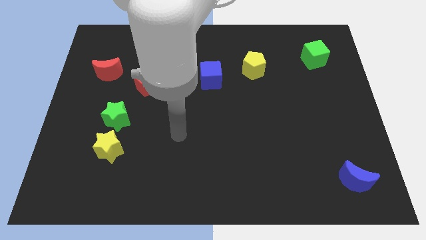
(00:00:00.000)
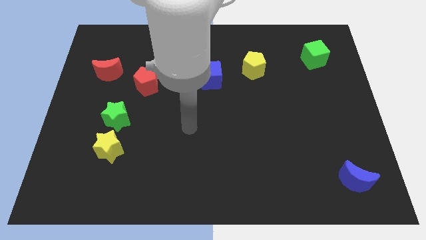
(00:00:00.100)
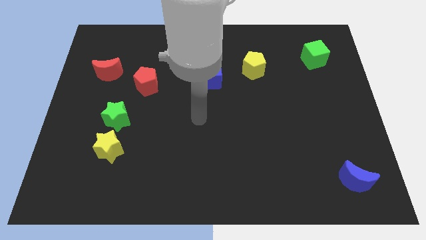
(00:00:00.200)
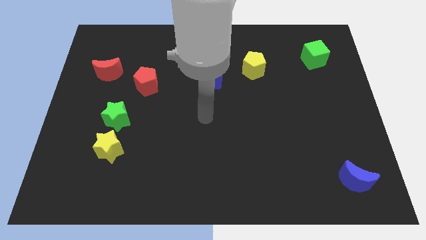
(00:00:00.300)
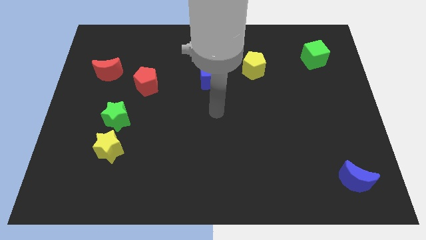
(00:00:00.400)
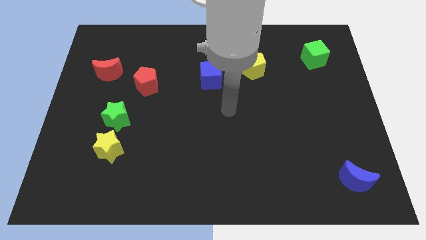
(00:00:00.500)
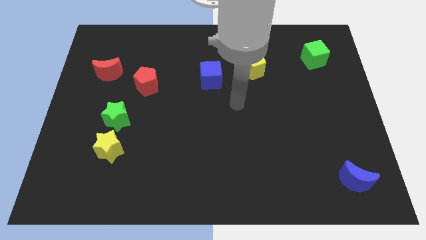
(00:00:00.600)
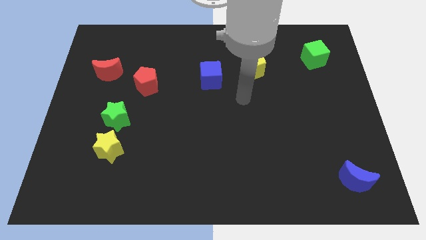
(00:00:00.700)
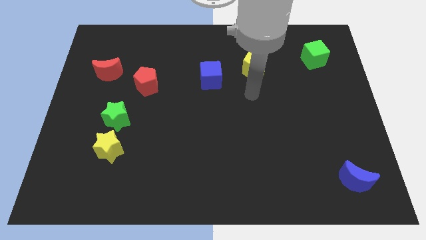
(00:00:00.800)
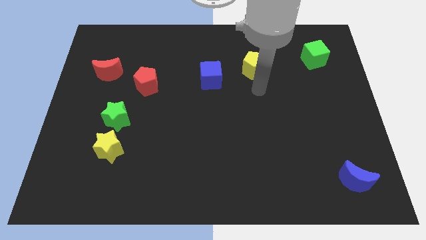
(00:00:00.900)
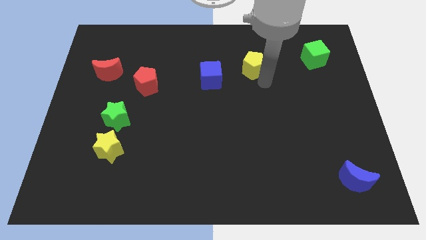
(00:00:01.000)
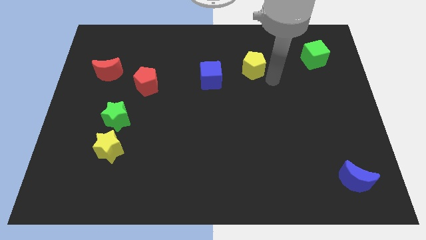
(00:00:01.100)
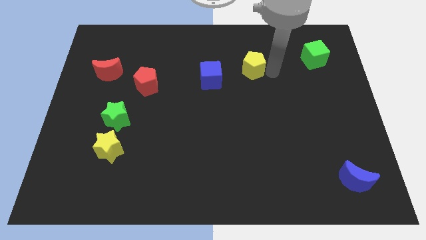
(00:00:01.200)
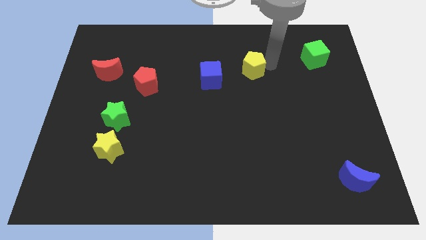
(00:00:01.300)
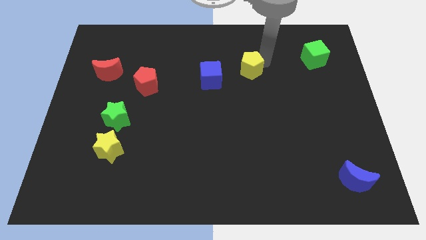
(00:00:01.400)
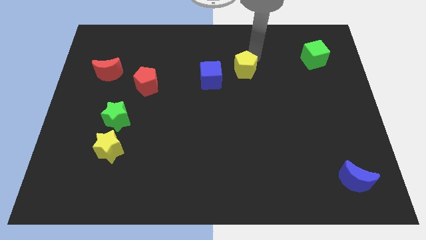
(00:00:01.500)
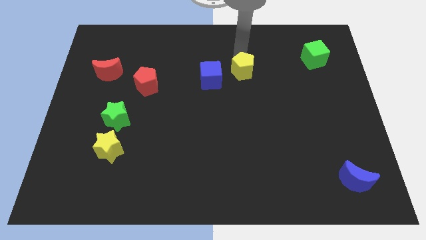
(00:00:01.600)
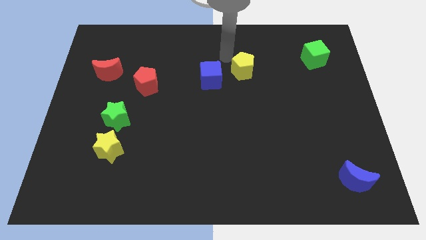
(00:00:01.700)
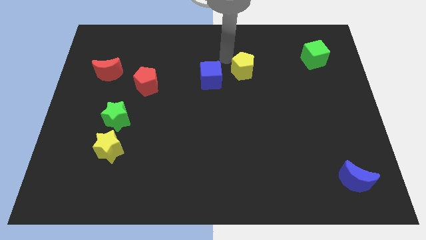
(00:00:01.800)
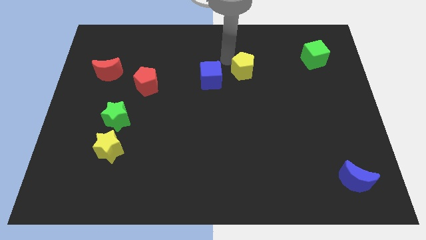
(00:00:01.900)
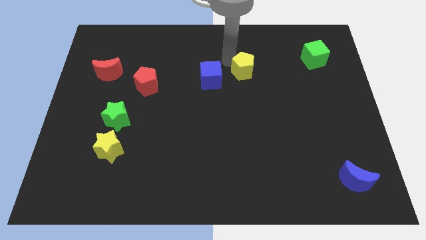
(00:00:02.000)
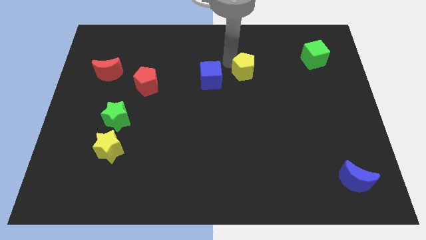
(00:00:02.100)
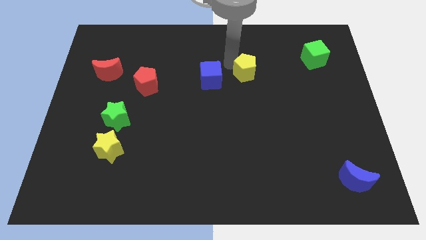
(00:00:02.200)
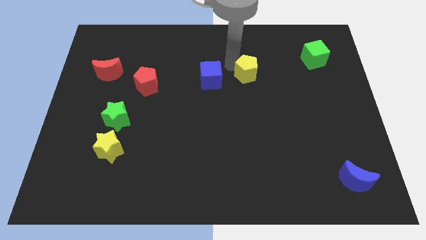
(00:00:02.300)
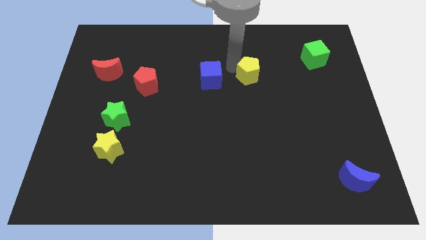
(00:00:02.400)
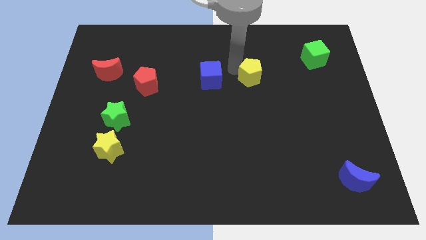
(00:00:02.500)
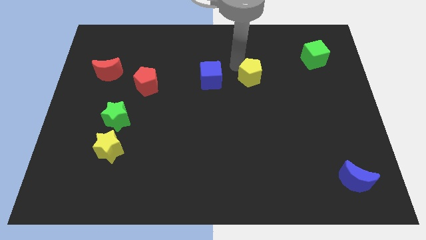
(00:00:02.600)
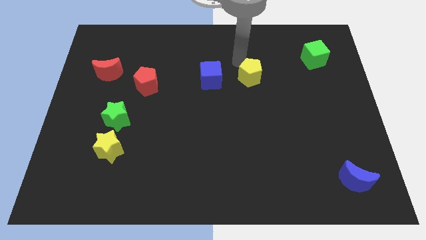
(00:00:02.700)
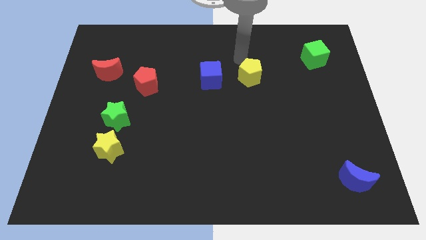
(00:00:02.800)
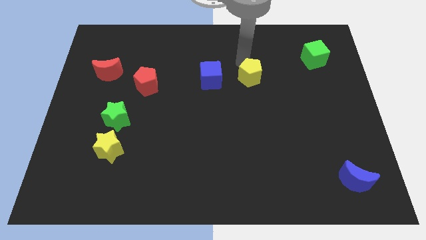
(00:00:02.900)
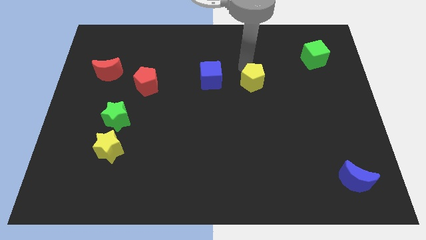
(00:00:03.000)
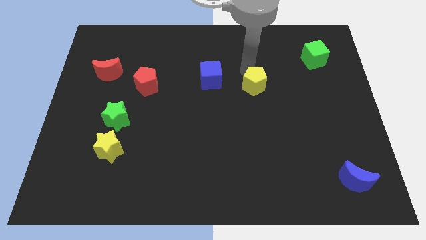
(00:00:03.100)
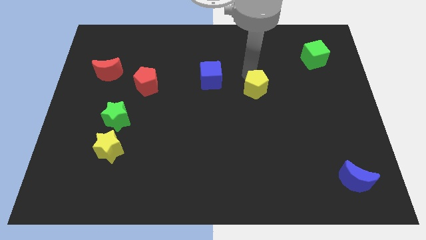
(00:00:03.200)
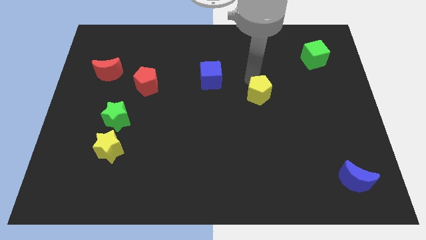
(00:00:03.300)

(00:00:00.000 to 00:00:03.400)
push the yellow pentagon somewhat downwards

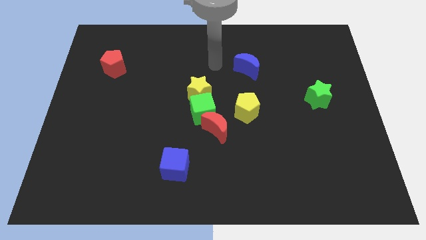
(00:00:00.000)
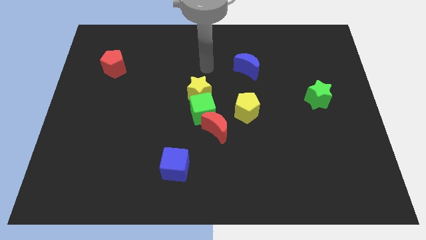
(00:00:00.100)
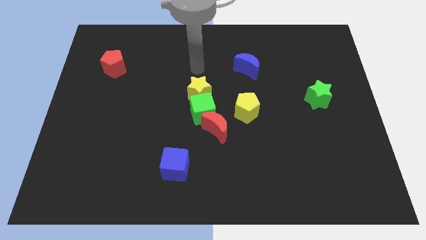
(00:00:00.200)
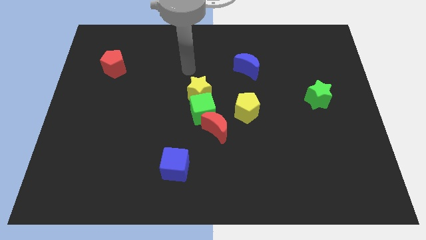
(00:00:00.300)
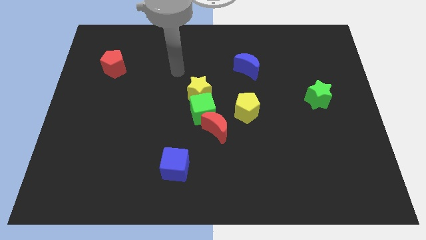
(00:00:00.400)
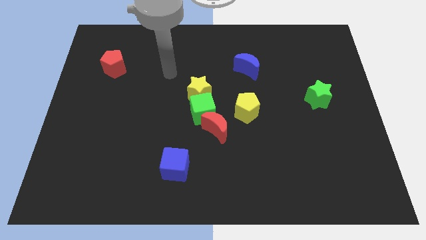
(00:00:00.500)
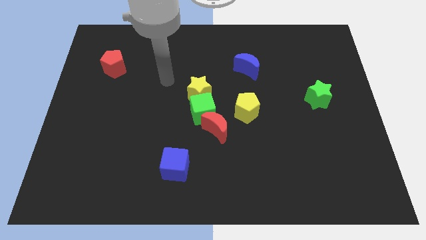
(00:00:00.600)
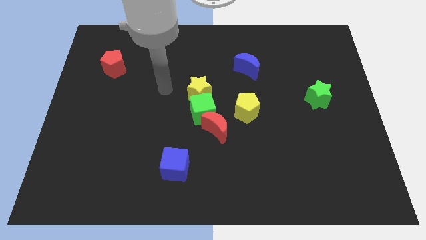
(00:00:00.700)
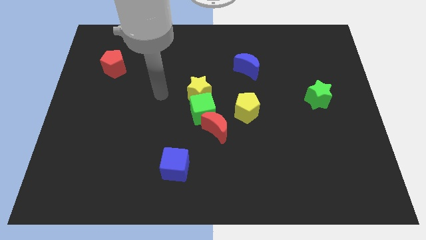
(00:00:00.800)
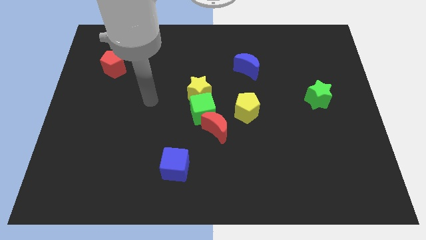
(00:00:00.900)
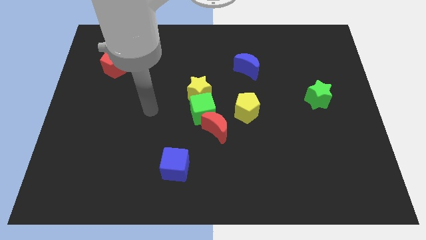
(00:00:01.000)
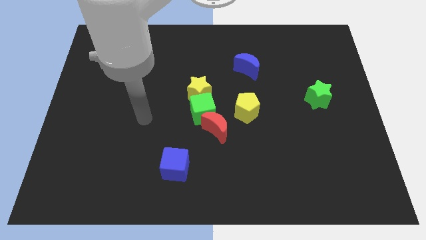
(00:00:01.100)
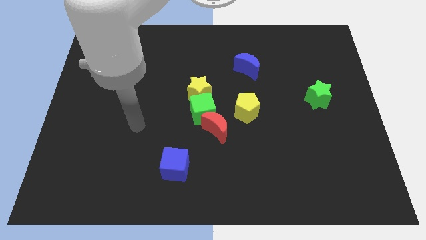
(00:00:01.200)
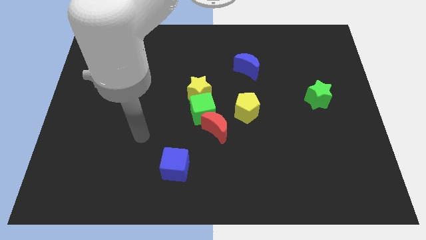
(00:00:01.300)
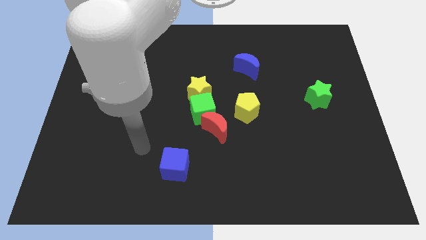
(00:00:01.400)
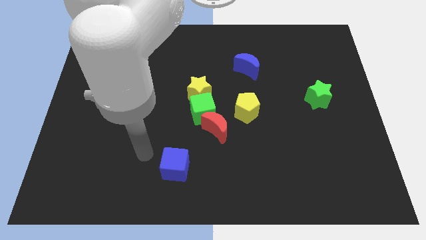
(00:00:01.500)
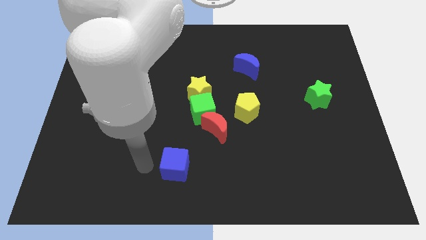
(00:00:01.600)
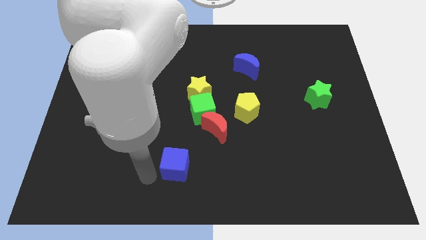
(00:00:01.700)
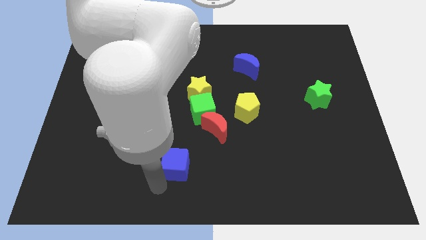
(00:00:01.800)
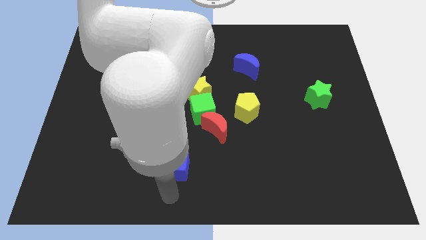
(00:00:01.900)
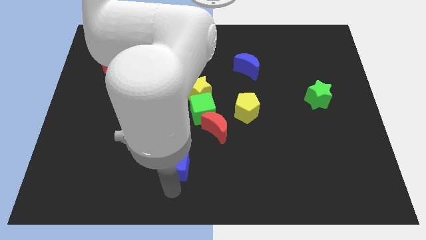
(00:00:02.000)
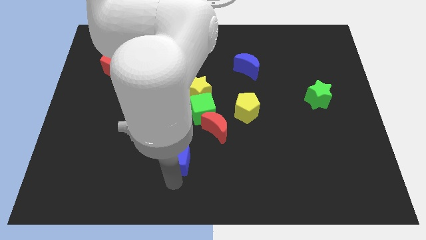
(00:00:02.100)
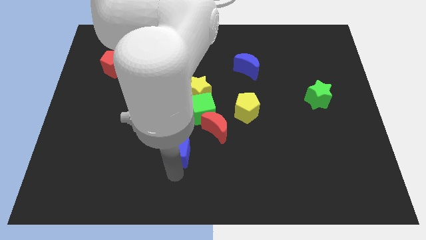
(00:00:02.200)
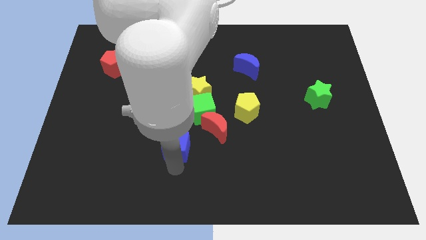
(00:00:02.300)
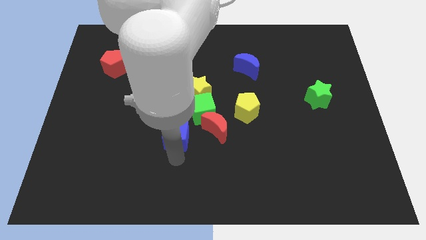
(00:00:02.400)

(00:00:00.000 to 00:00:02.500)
slightly push the blue cube upwards

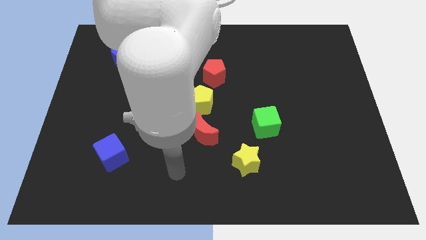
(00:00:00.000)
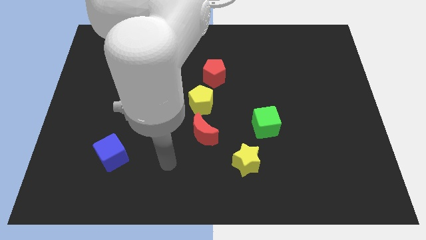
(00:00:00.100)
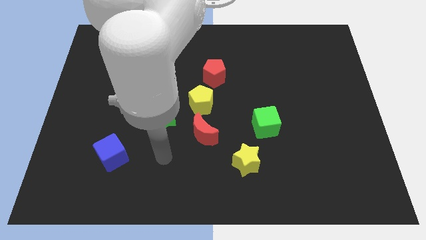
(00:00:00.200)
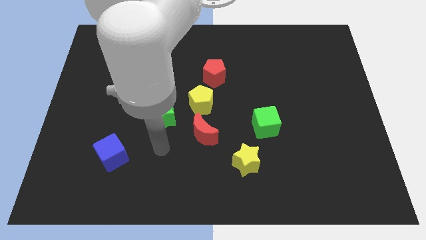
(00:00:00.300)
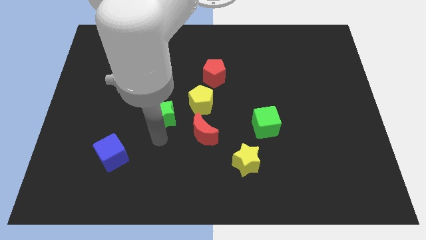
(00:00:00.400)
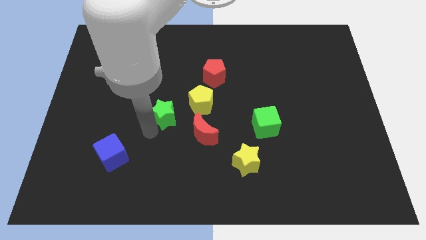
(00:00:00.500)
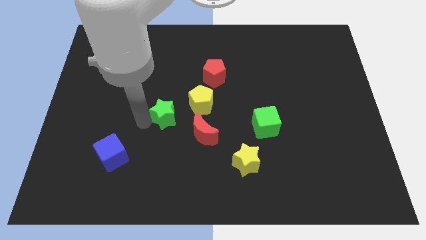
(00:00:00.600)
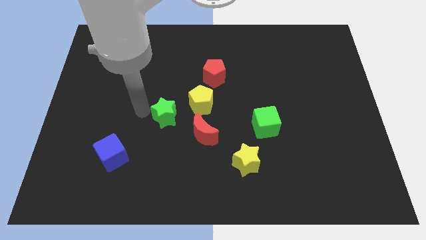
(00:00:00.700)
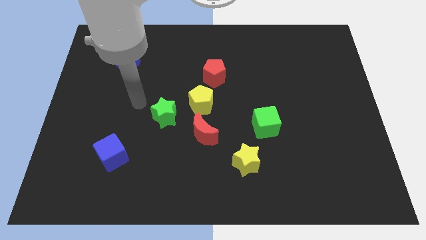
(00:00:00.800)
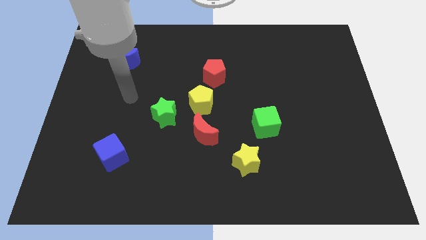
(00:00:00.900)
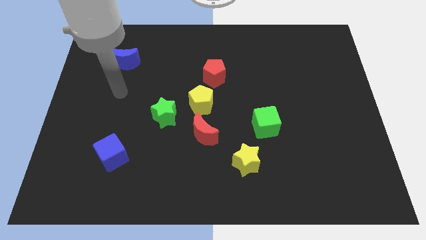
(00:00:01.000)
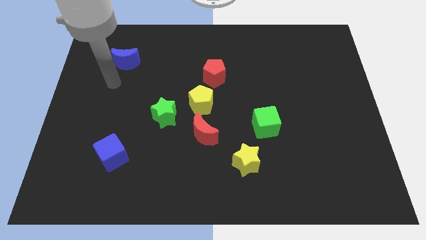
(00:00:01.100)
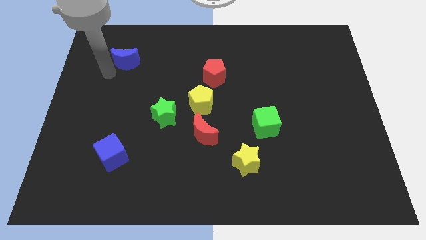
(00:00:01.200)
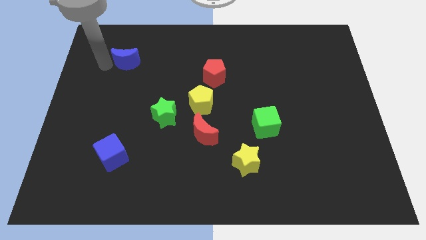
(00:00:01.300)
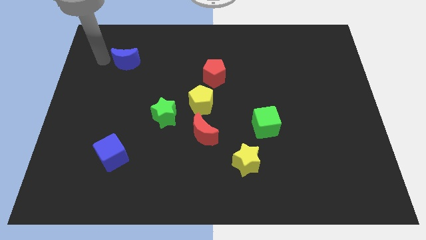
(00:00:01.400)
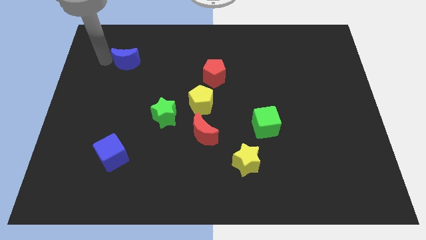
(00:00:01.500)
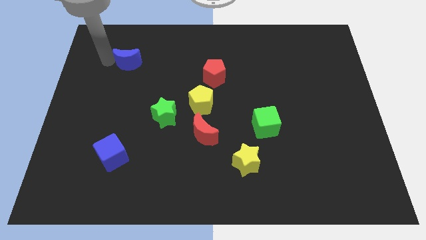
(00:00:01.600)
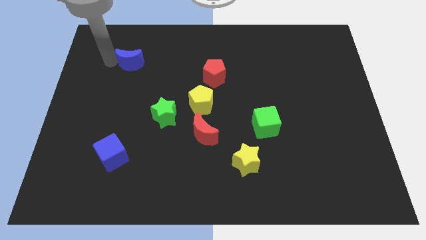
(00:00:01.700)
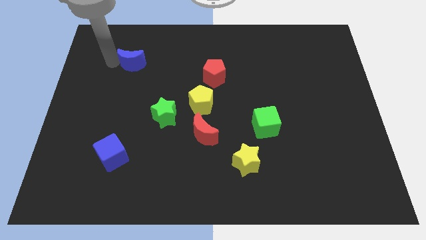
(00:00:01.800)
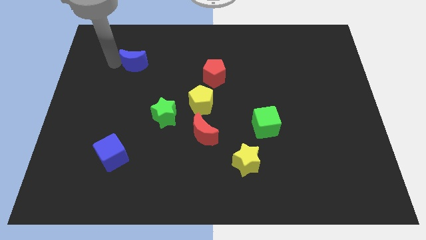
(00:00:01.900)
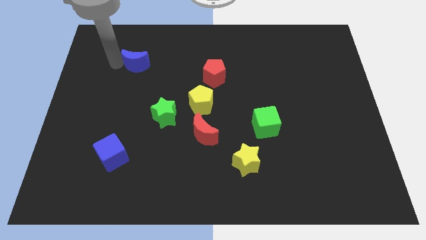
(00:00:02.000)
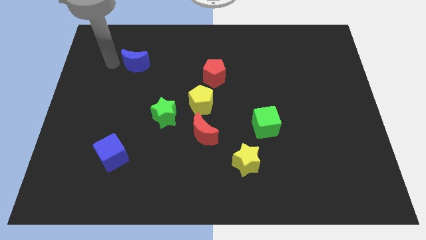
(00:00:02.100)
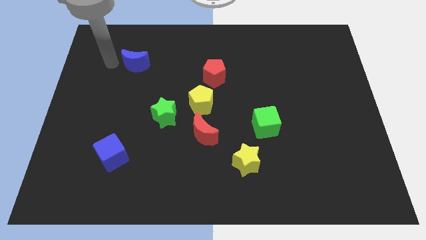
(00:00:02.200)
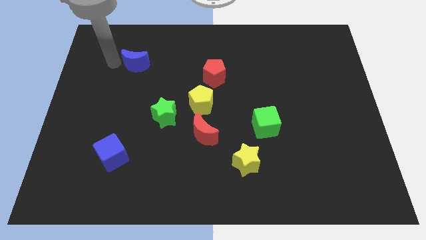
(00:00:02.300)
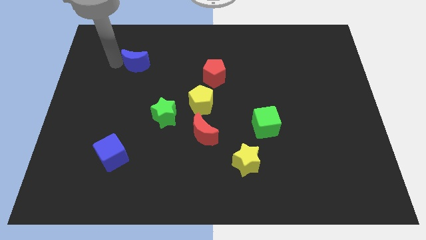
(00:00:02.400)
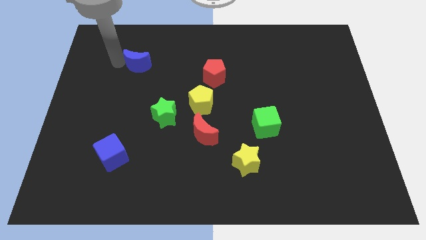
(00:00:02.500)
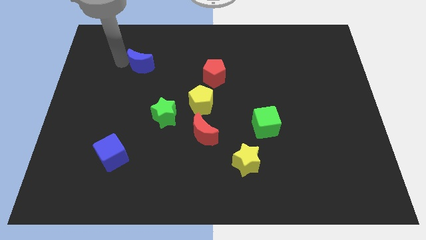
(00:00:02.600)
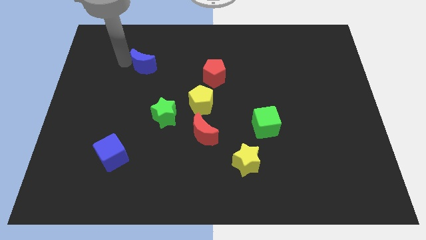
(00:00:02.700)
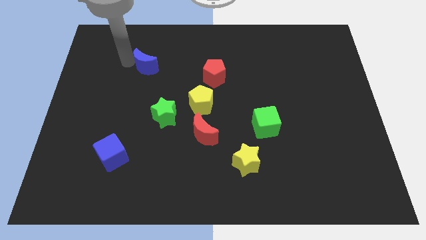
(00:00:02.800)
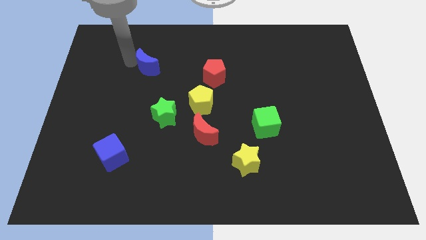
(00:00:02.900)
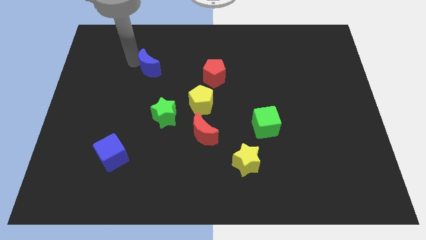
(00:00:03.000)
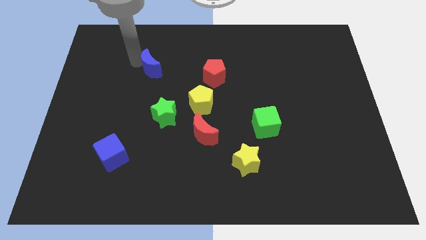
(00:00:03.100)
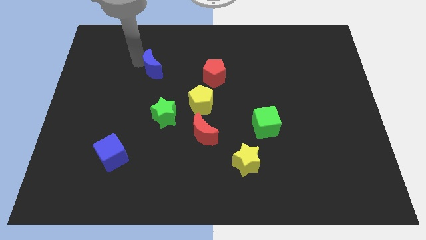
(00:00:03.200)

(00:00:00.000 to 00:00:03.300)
slightly push the blue moon to the right
